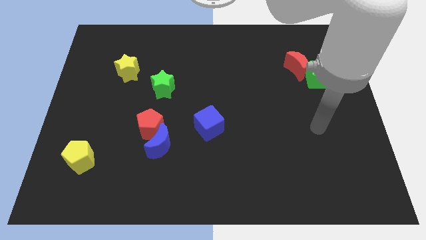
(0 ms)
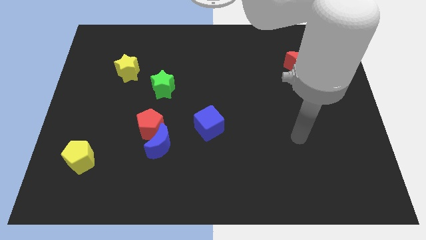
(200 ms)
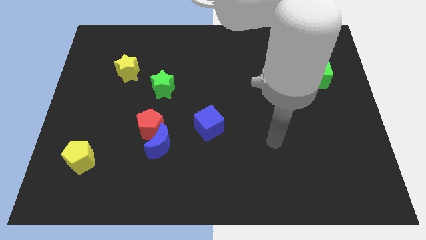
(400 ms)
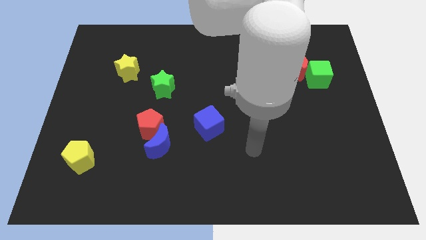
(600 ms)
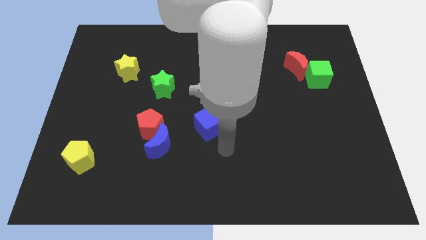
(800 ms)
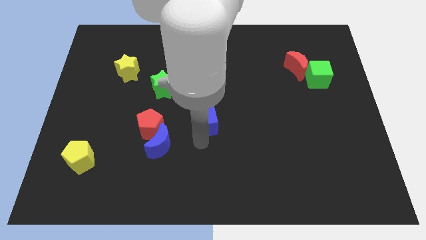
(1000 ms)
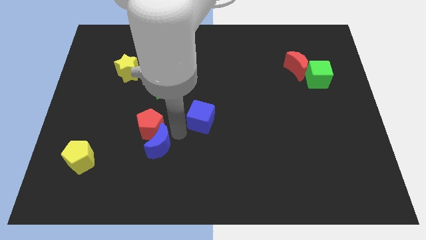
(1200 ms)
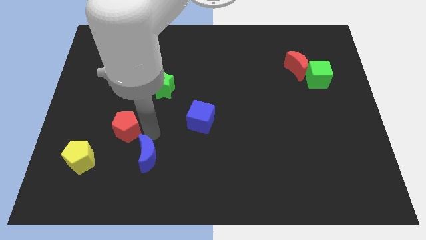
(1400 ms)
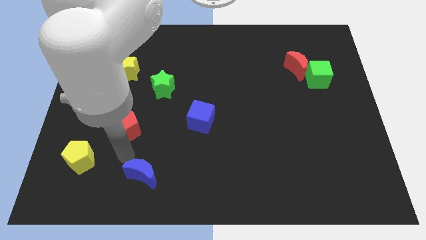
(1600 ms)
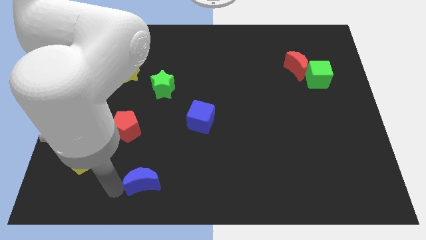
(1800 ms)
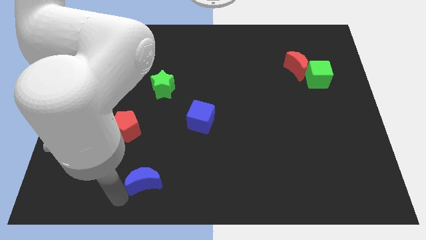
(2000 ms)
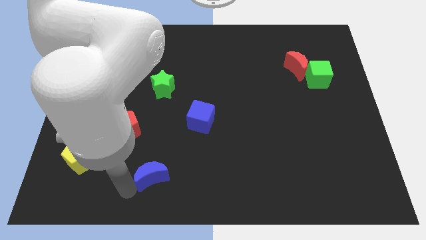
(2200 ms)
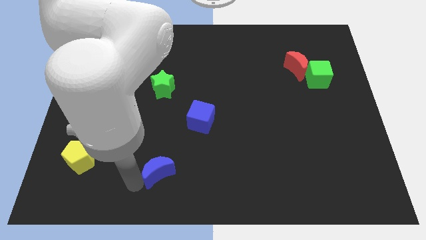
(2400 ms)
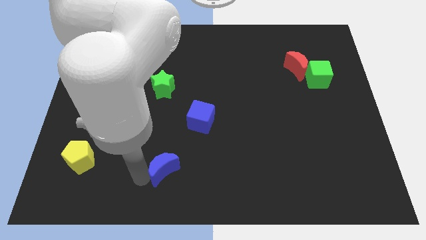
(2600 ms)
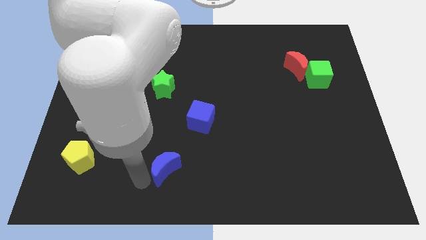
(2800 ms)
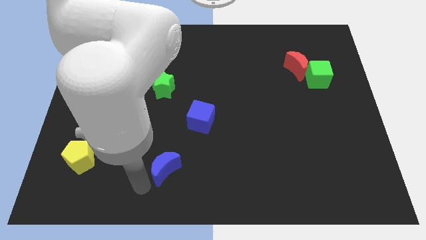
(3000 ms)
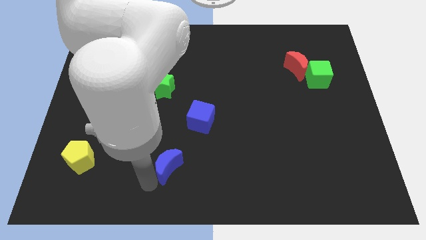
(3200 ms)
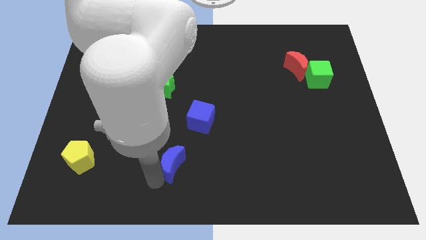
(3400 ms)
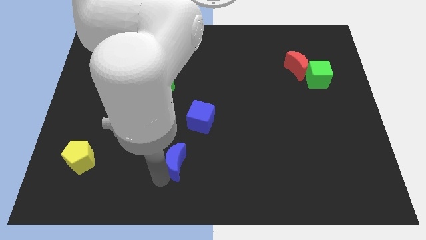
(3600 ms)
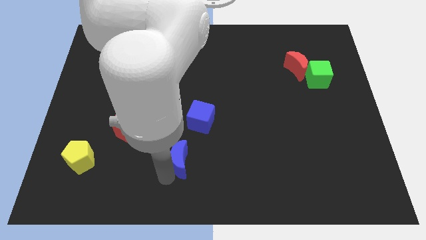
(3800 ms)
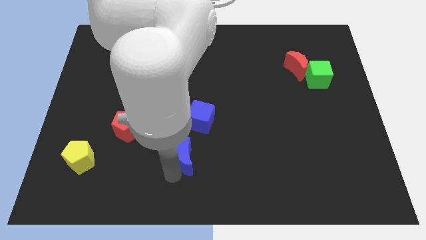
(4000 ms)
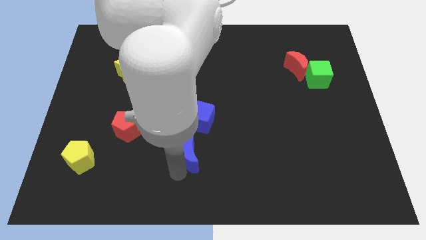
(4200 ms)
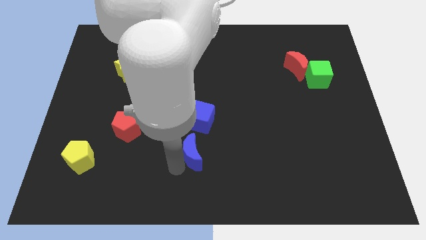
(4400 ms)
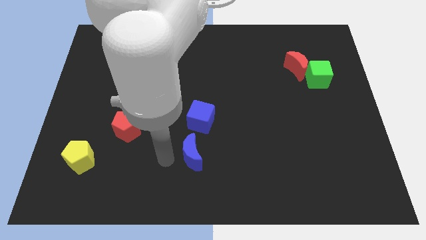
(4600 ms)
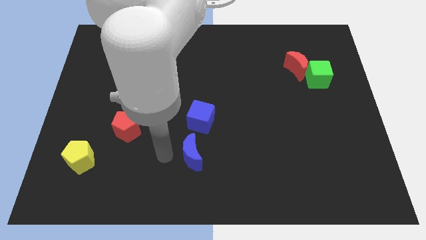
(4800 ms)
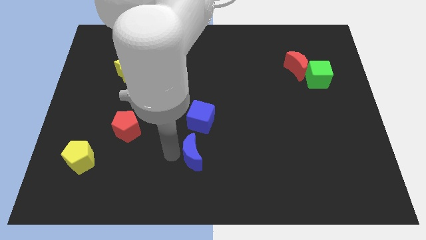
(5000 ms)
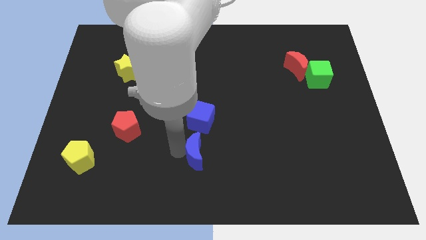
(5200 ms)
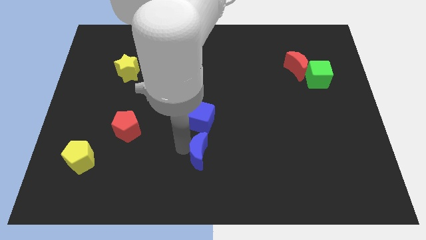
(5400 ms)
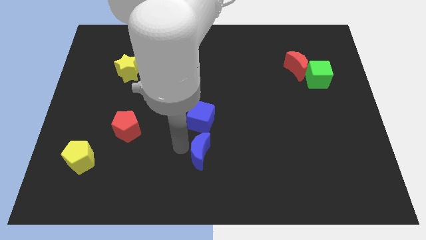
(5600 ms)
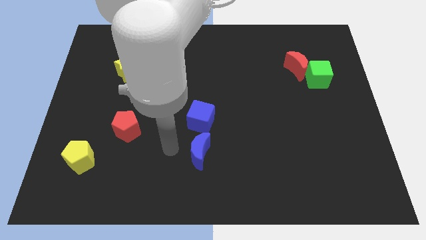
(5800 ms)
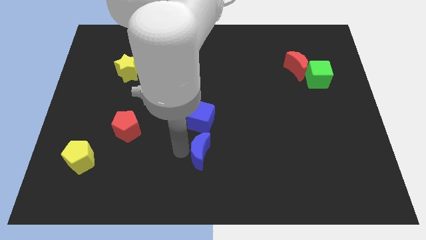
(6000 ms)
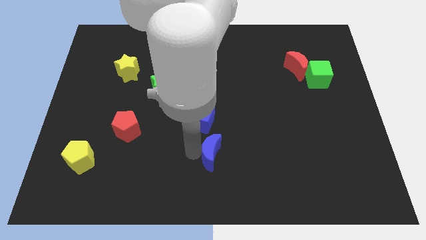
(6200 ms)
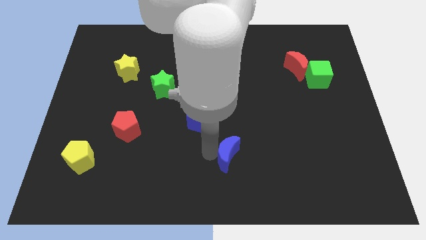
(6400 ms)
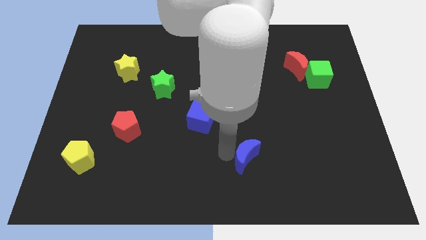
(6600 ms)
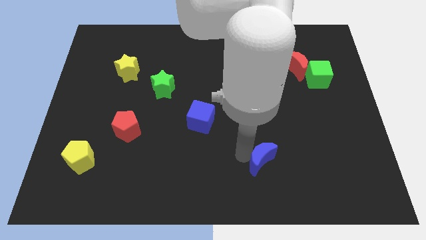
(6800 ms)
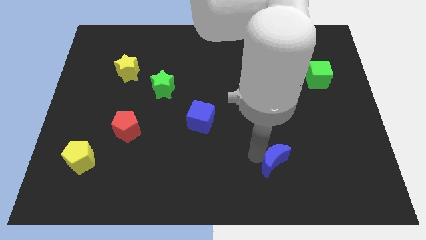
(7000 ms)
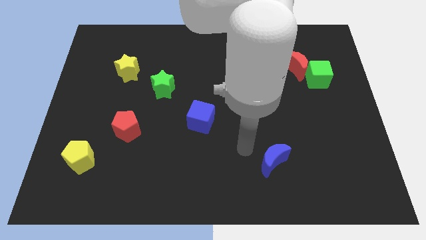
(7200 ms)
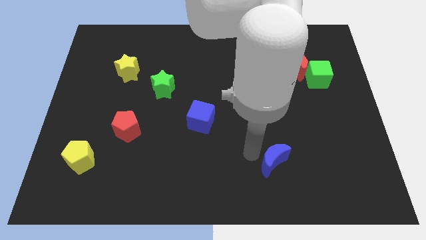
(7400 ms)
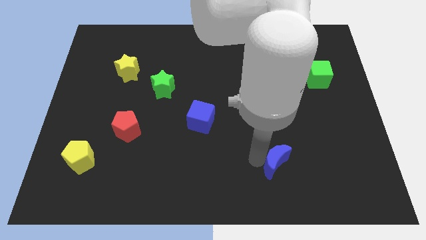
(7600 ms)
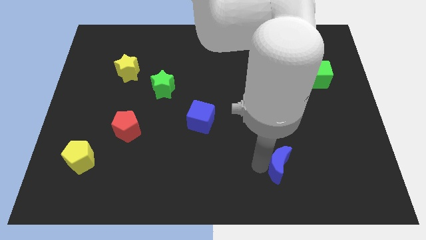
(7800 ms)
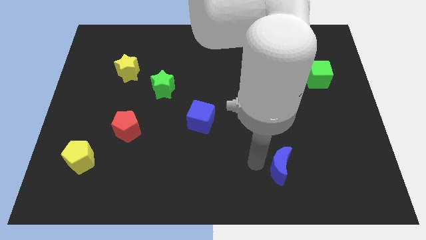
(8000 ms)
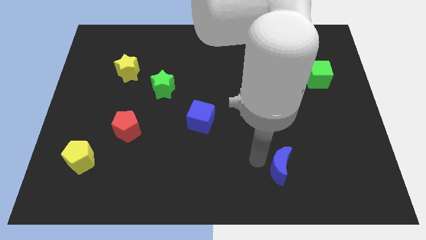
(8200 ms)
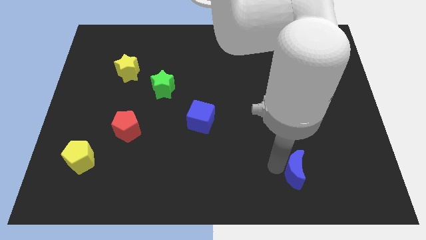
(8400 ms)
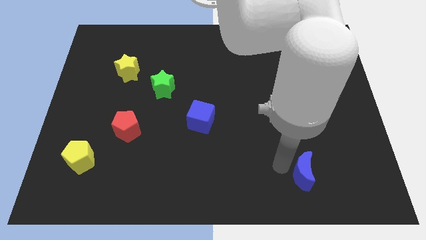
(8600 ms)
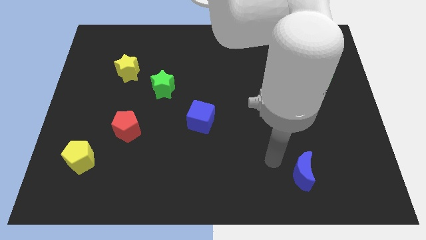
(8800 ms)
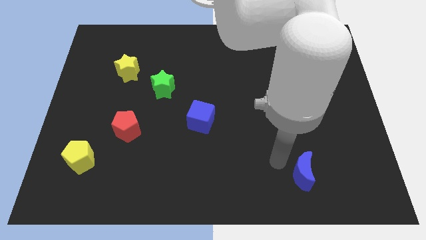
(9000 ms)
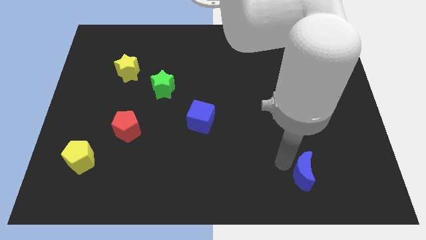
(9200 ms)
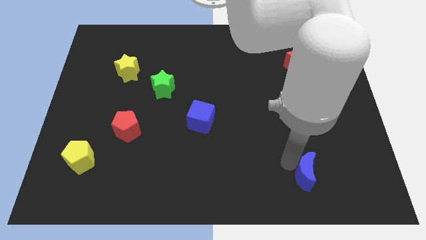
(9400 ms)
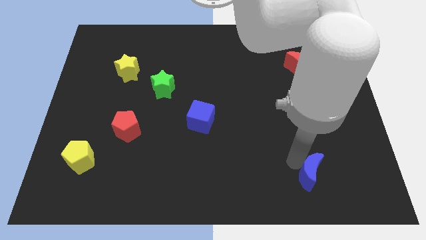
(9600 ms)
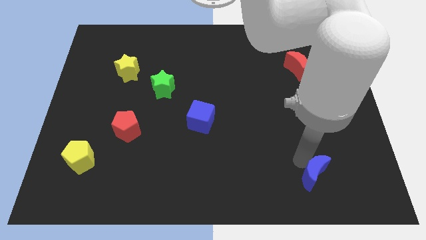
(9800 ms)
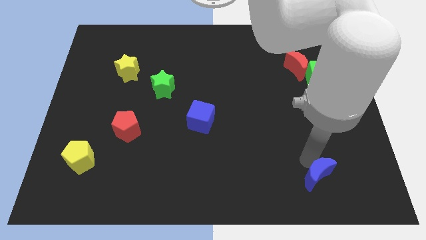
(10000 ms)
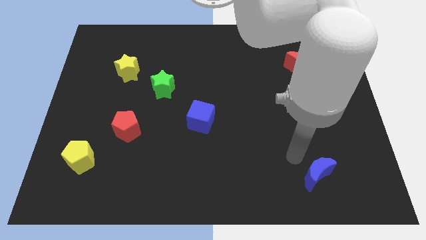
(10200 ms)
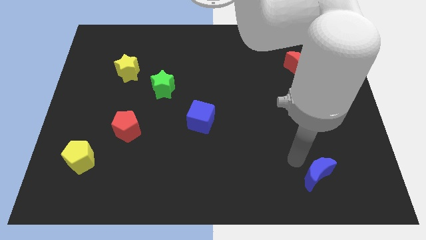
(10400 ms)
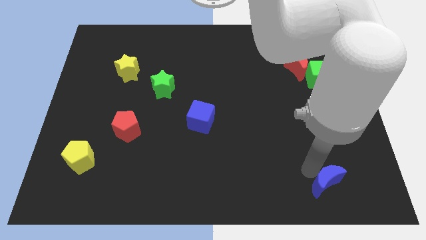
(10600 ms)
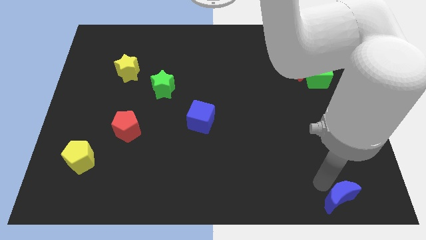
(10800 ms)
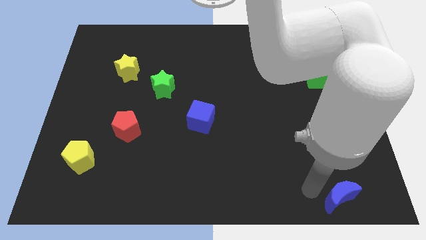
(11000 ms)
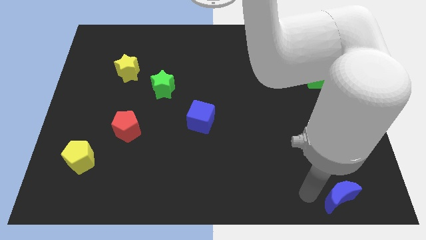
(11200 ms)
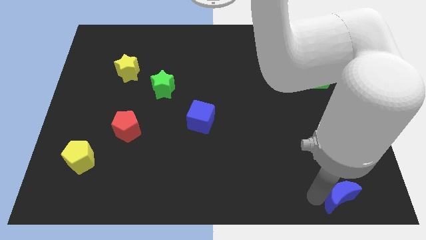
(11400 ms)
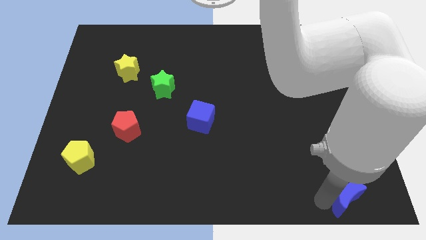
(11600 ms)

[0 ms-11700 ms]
slide the blue moon to the bottom right of the board
